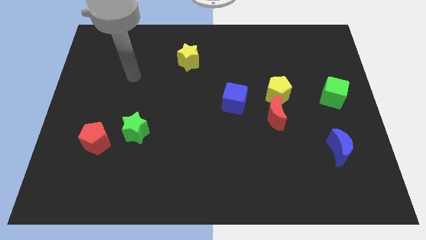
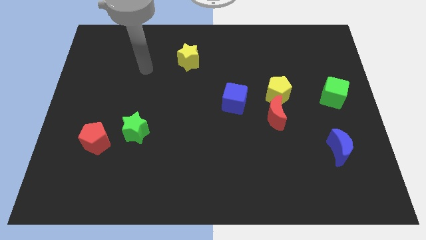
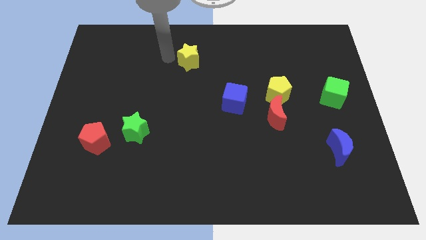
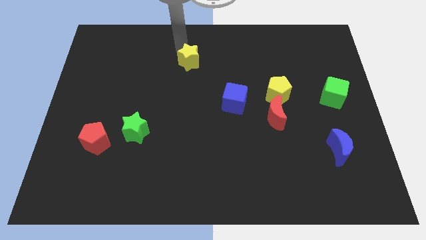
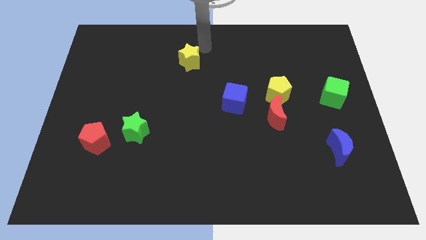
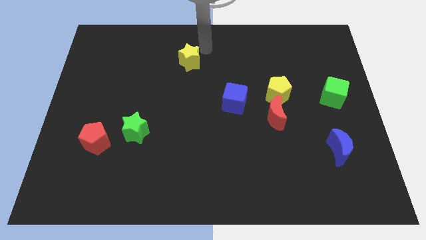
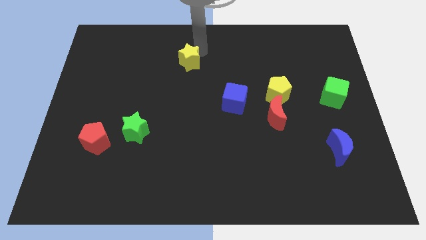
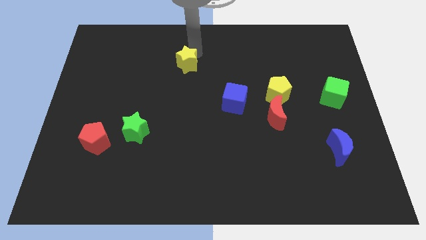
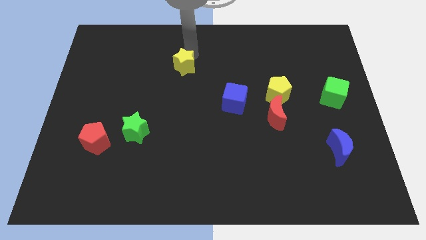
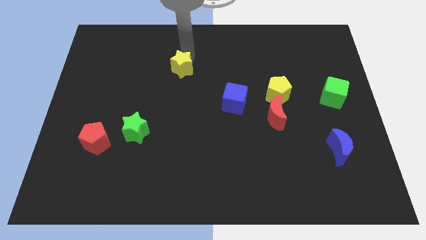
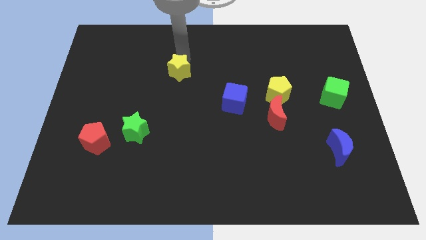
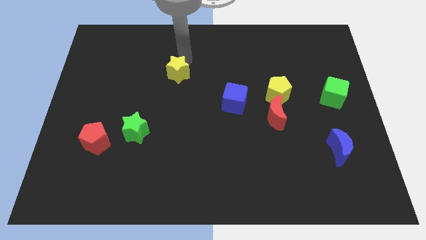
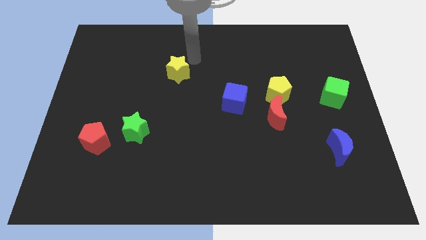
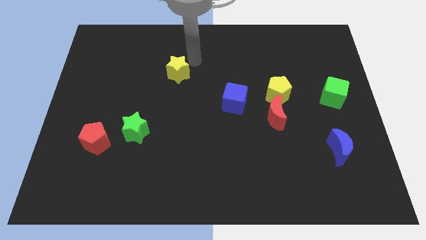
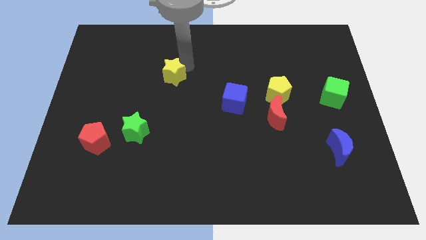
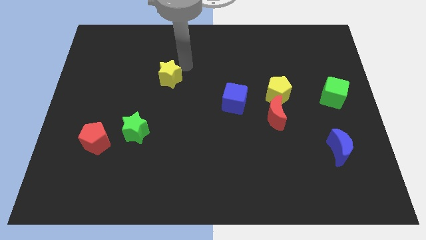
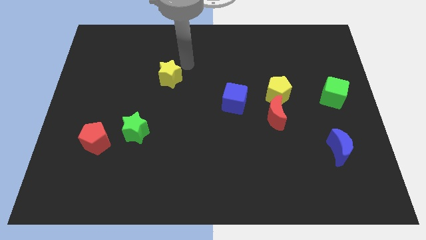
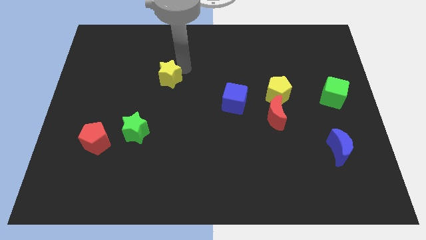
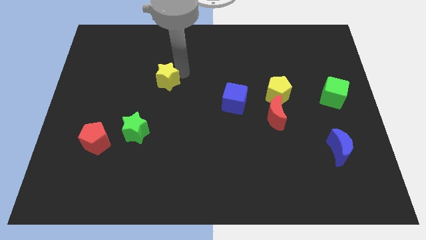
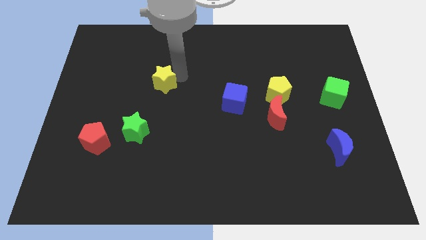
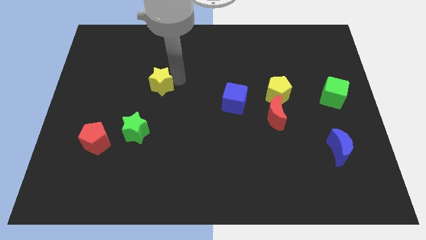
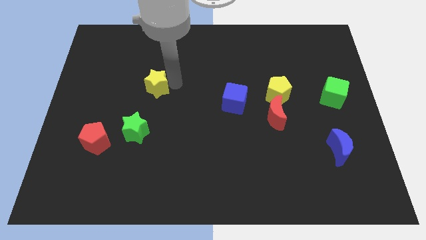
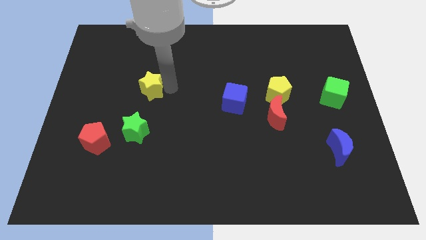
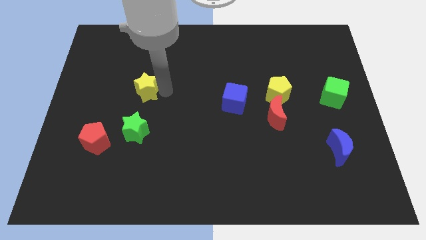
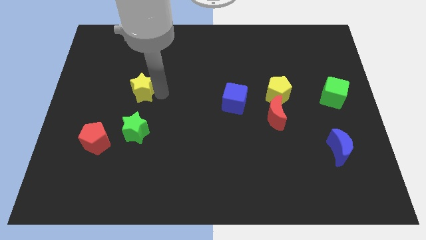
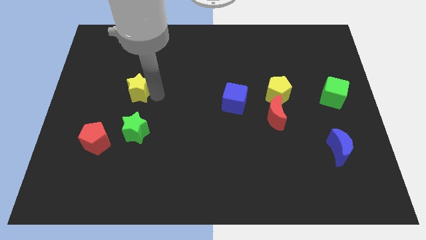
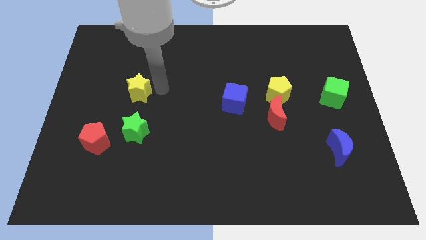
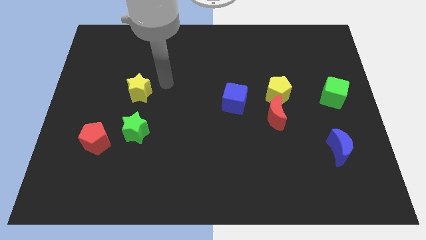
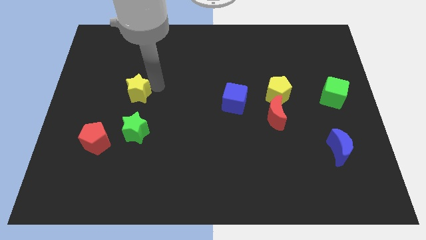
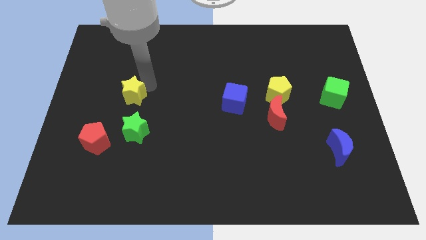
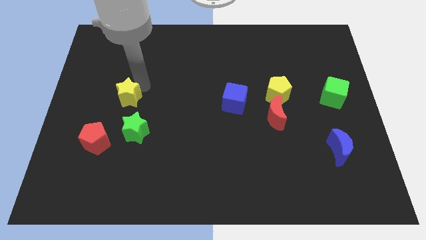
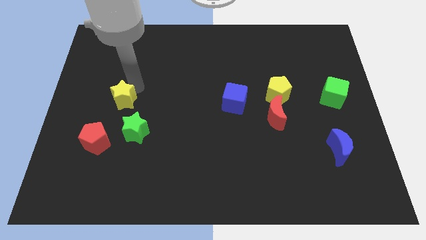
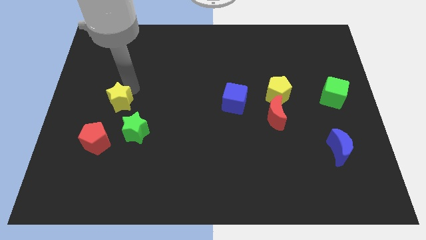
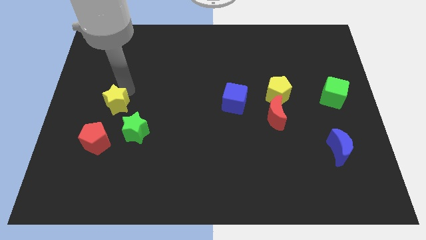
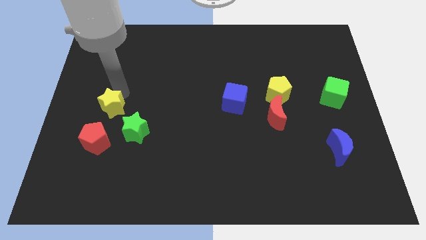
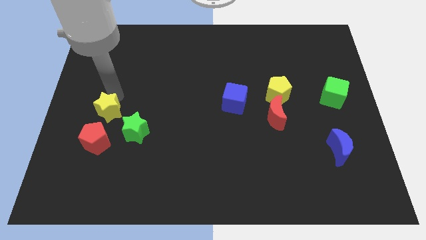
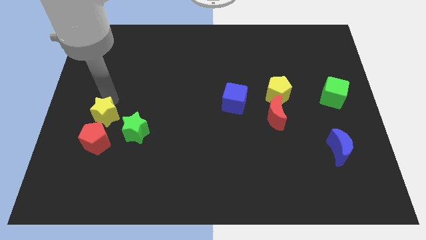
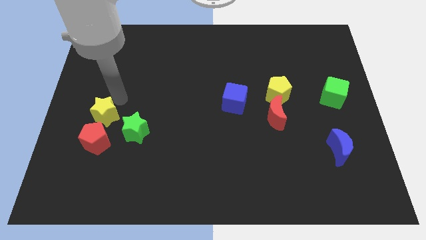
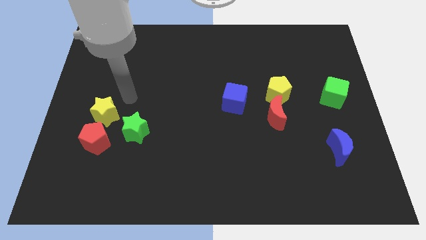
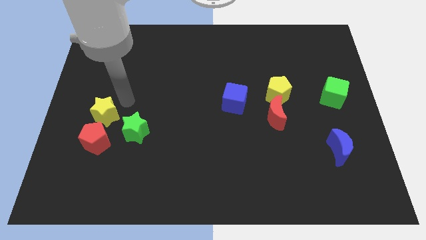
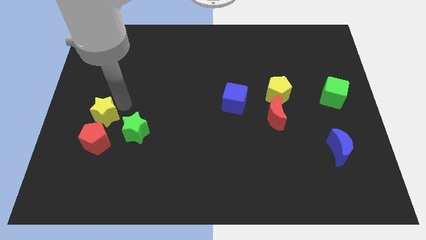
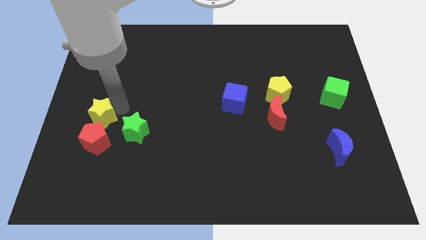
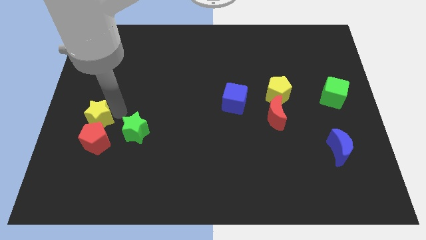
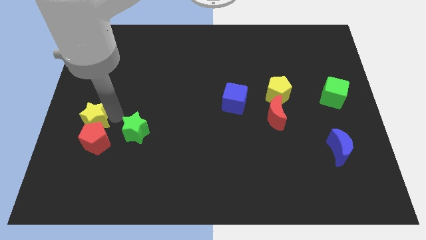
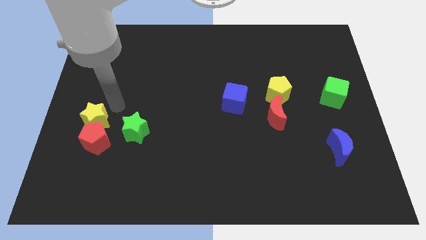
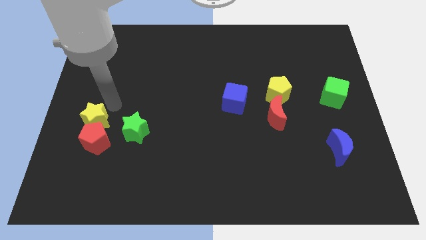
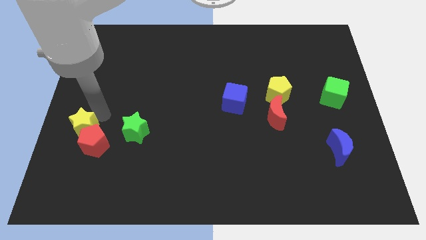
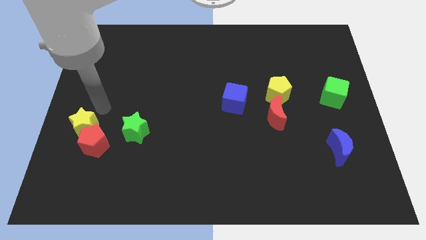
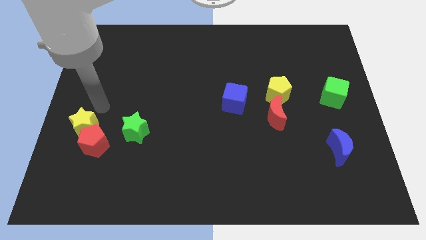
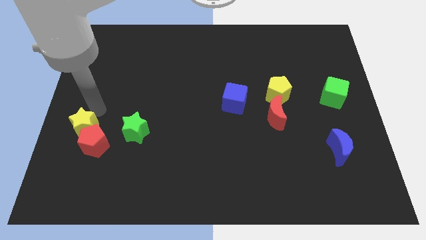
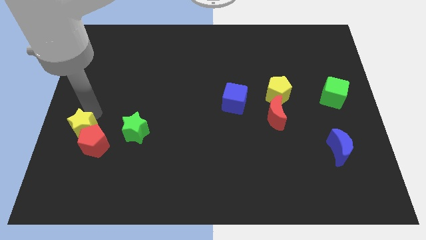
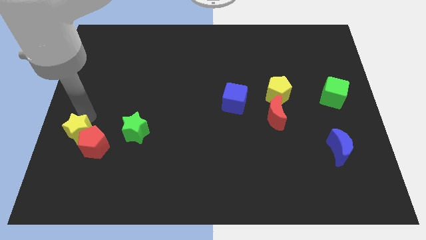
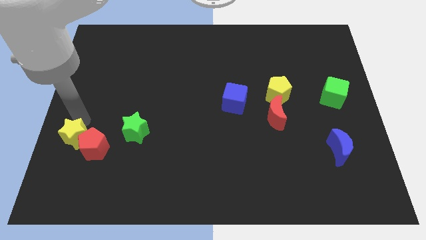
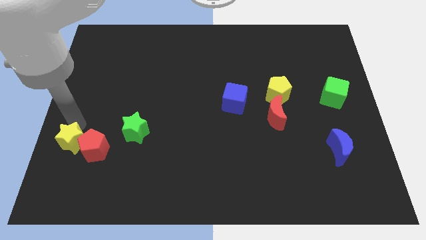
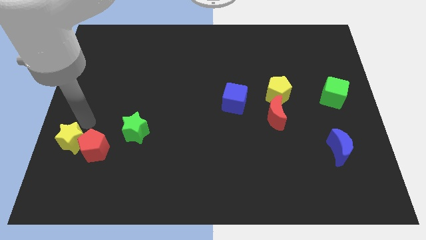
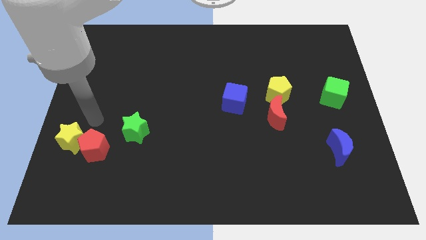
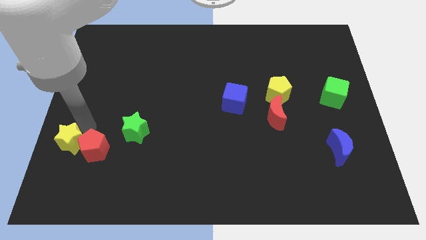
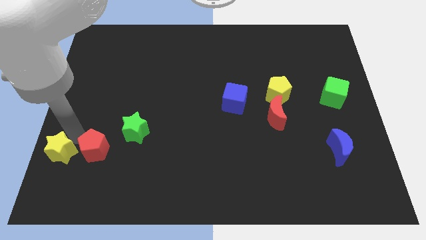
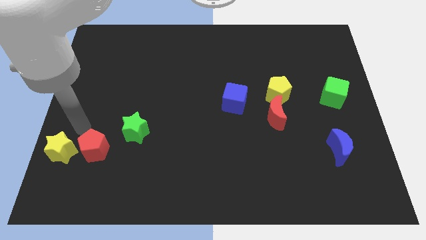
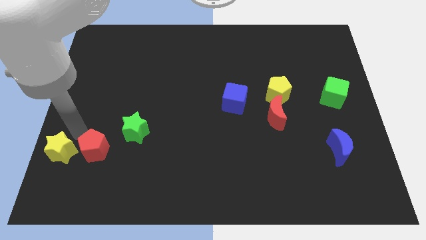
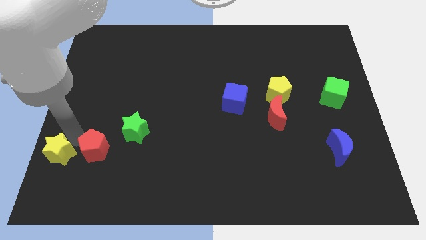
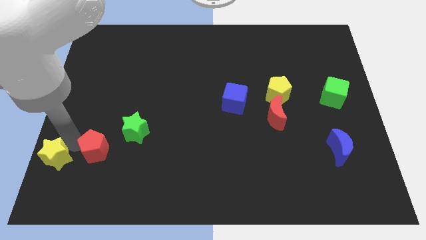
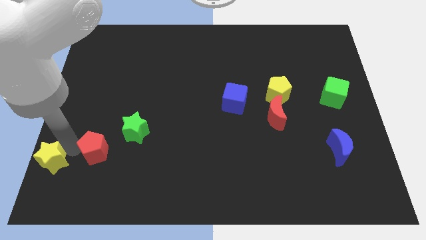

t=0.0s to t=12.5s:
slide the yellow star to the bottom left

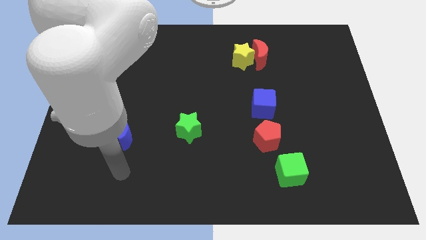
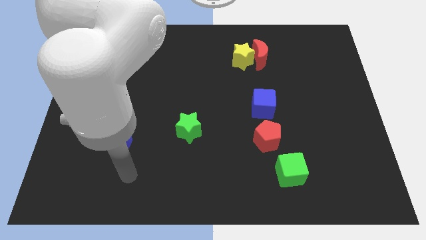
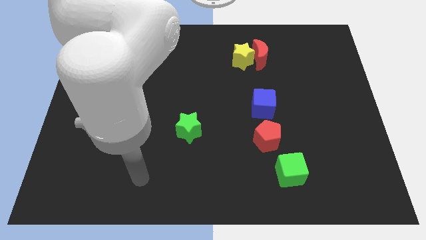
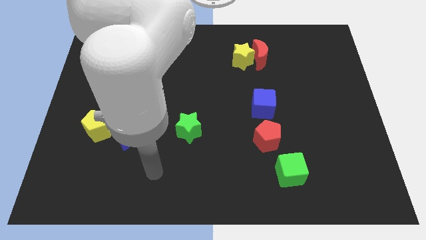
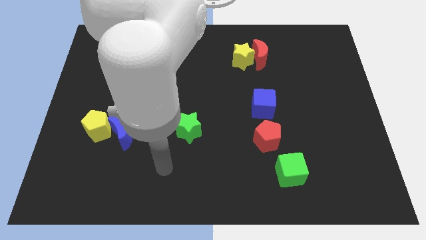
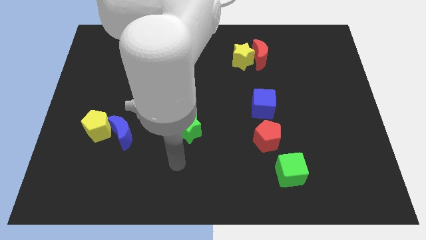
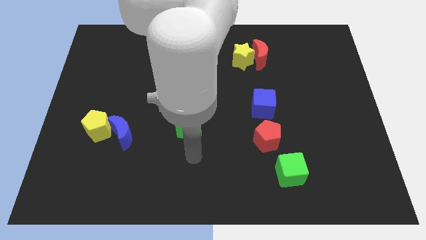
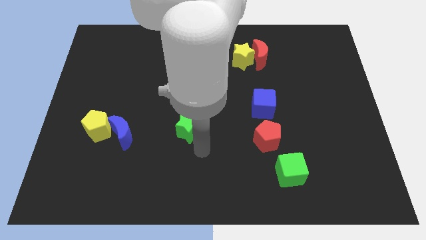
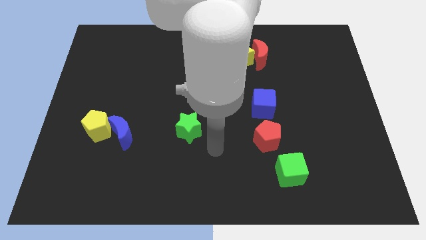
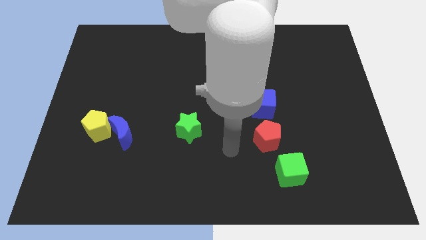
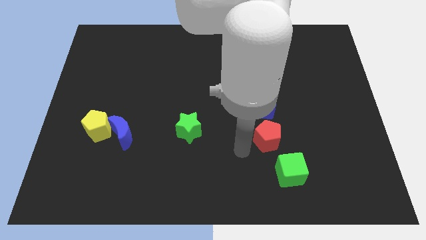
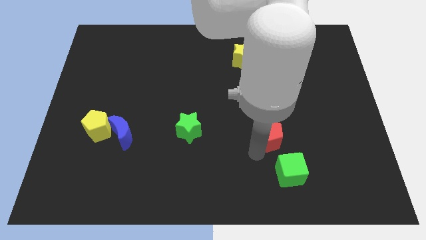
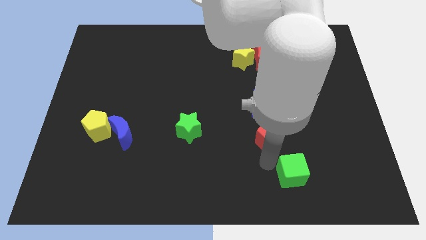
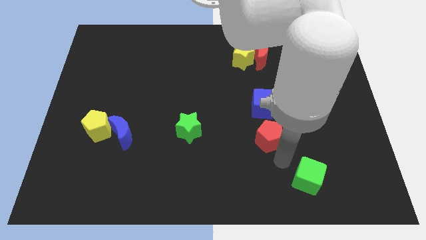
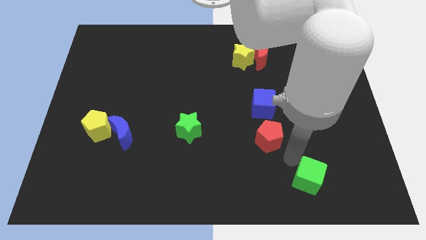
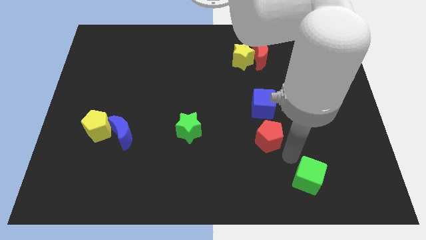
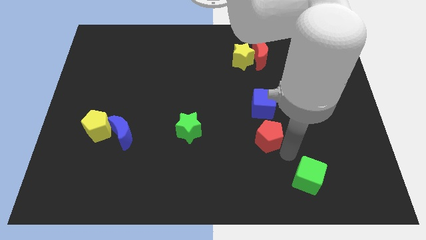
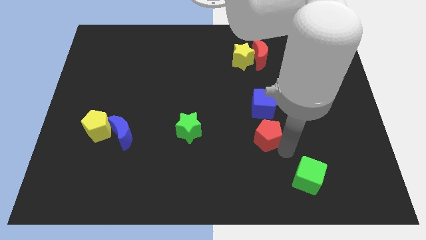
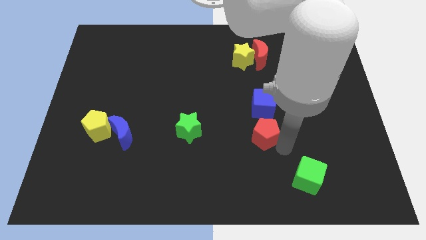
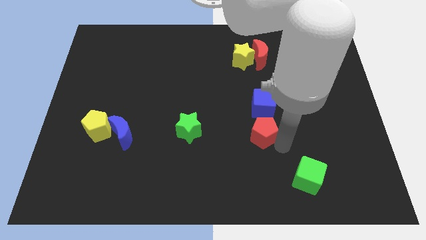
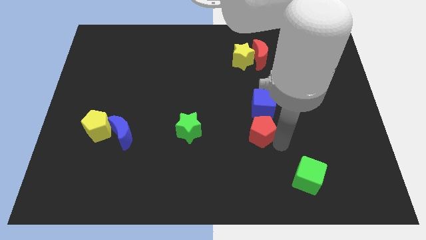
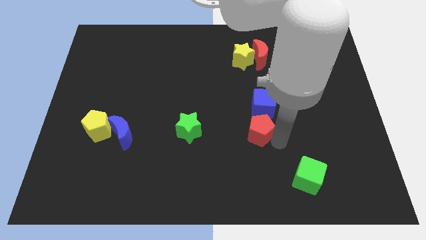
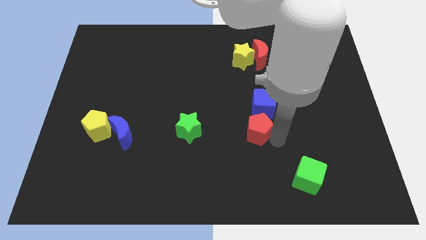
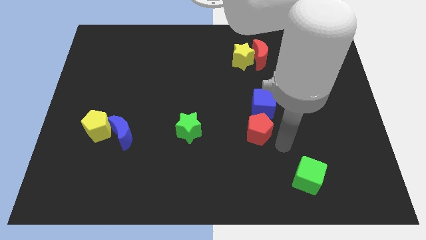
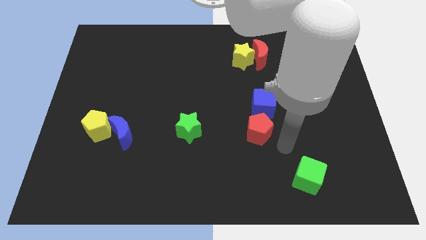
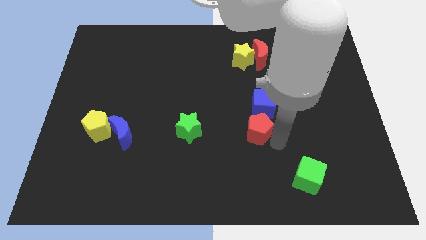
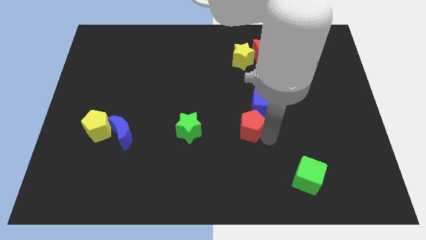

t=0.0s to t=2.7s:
move the red pentagon to the center of the board
